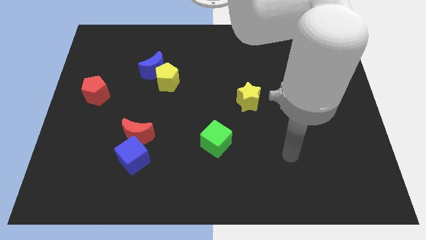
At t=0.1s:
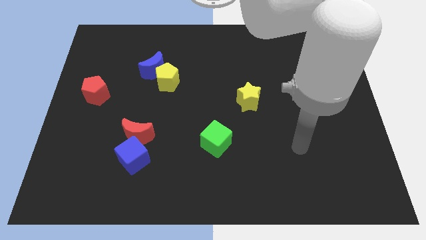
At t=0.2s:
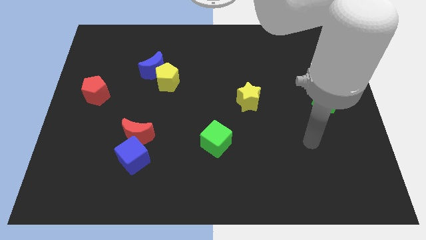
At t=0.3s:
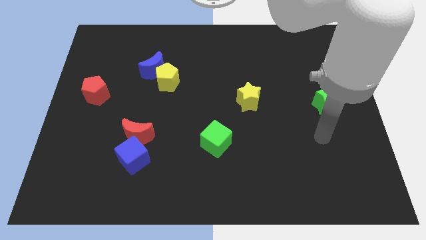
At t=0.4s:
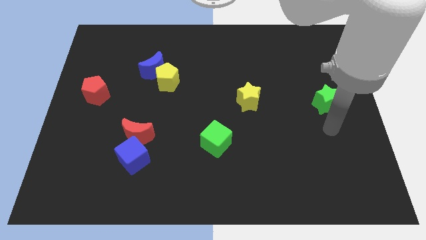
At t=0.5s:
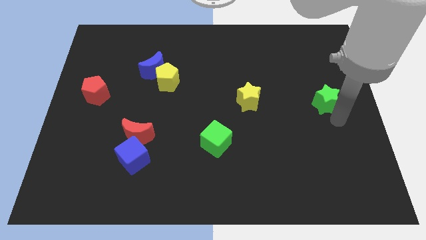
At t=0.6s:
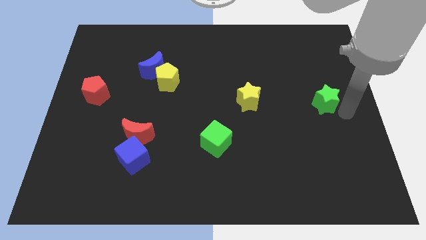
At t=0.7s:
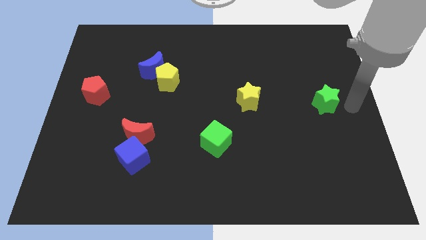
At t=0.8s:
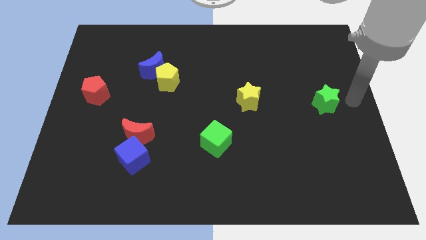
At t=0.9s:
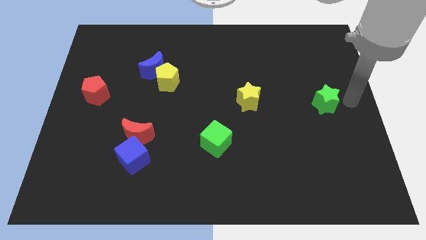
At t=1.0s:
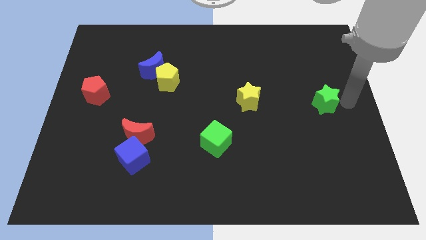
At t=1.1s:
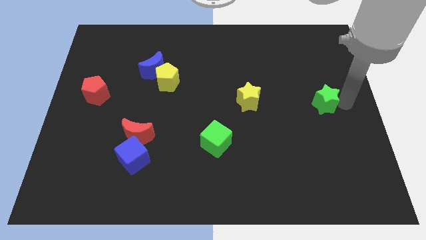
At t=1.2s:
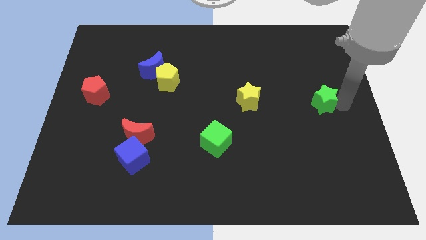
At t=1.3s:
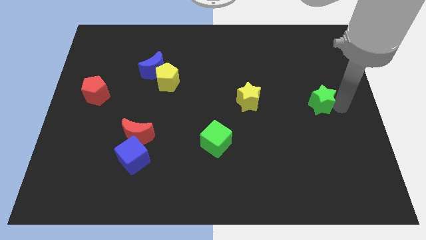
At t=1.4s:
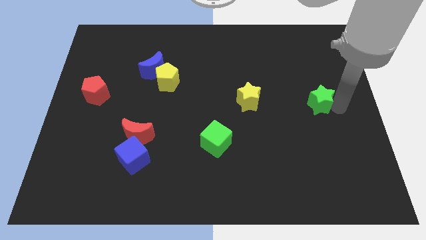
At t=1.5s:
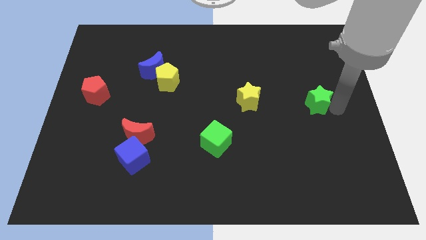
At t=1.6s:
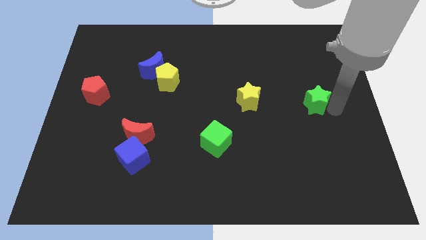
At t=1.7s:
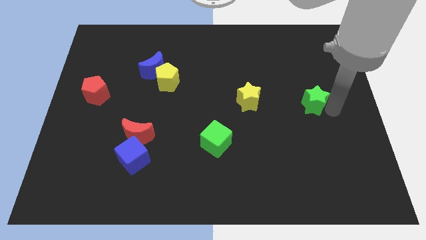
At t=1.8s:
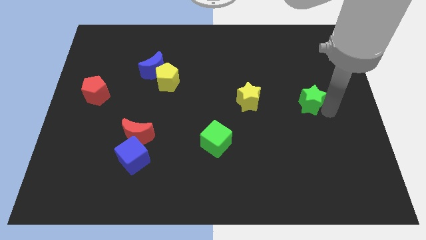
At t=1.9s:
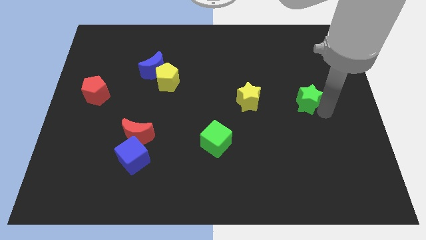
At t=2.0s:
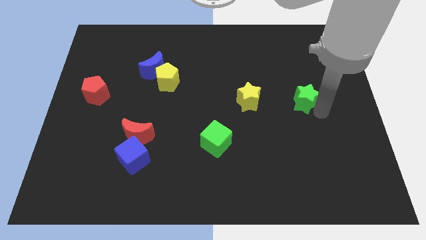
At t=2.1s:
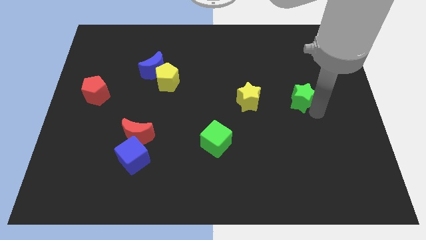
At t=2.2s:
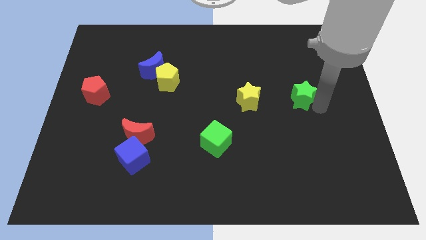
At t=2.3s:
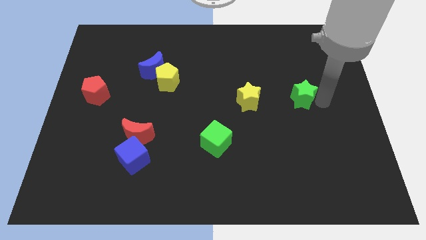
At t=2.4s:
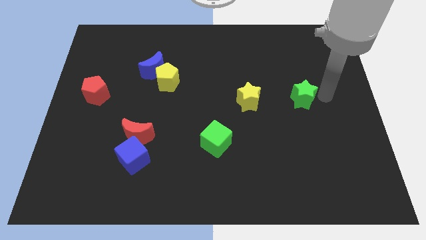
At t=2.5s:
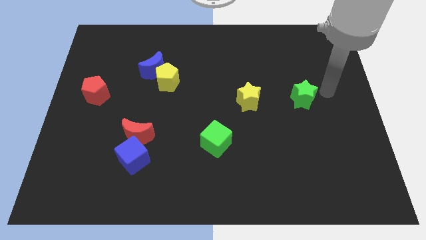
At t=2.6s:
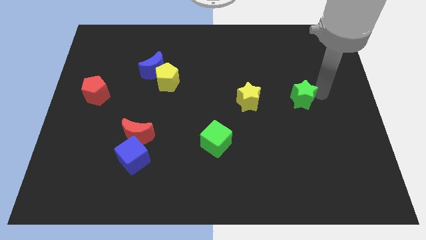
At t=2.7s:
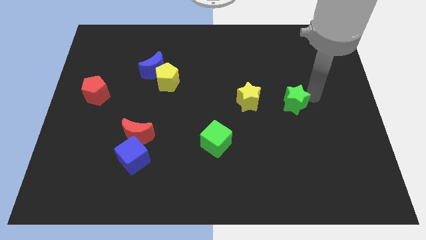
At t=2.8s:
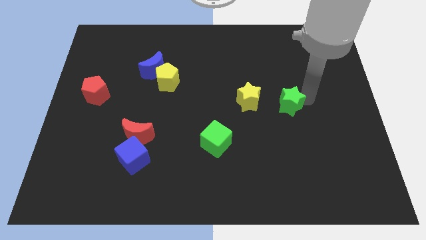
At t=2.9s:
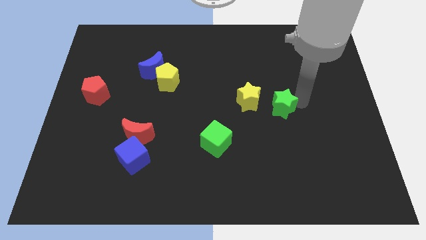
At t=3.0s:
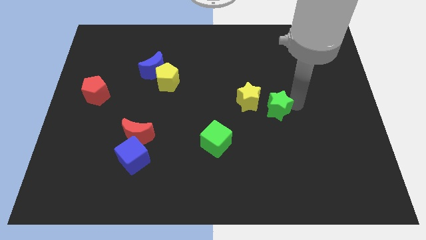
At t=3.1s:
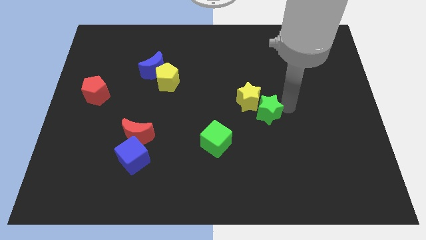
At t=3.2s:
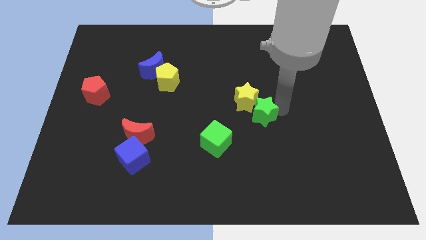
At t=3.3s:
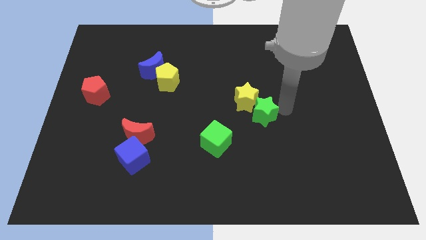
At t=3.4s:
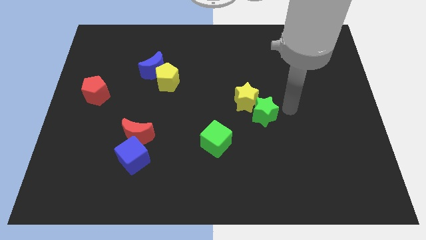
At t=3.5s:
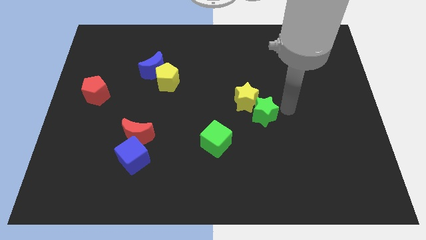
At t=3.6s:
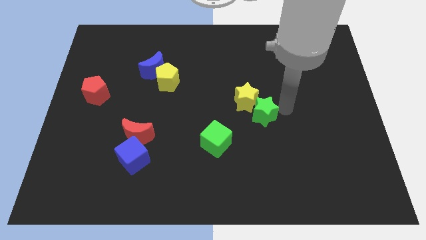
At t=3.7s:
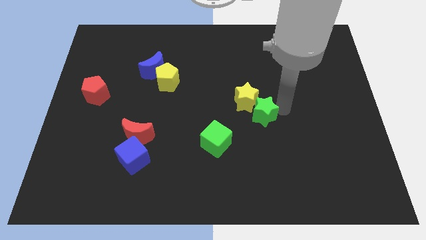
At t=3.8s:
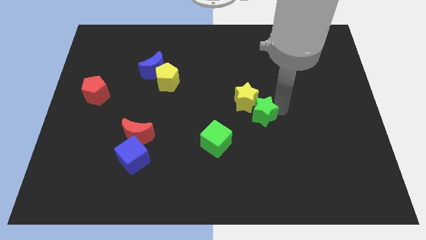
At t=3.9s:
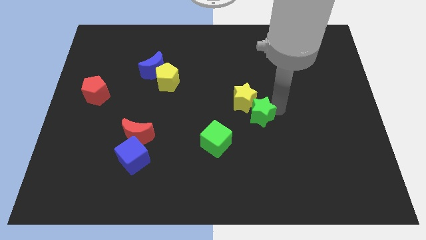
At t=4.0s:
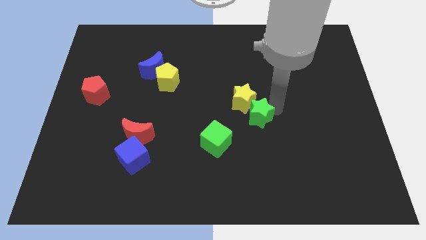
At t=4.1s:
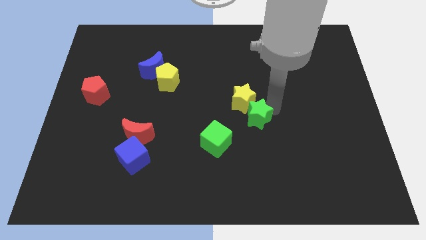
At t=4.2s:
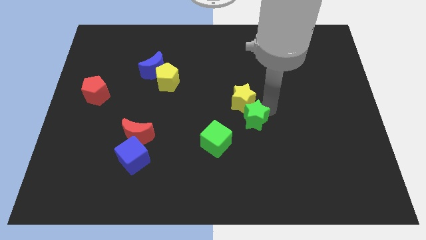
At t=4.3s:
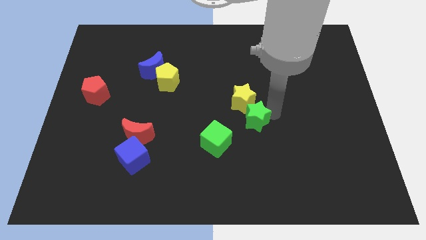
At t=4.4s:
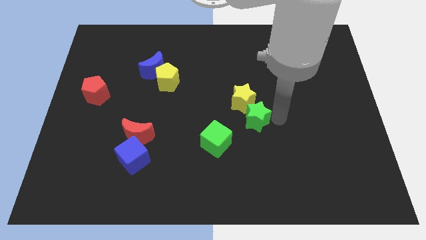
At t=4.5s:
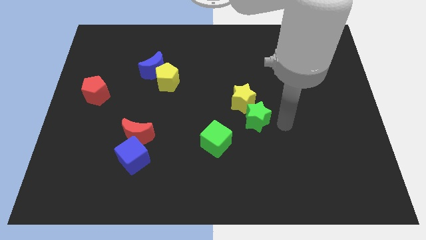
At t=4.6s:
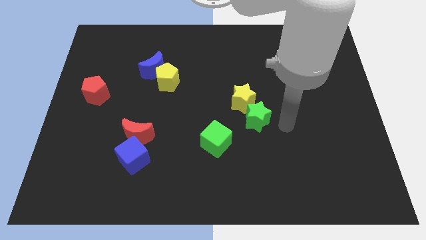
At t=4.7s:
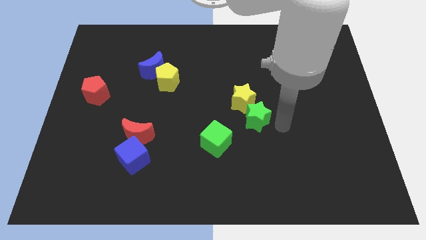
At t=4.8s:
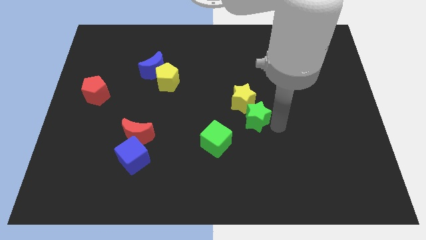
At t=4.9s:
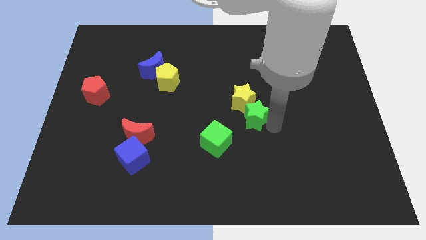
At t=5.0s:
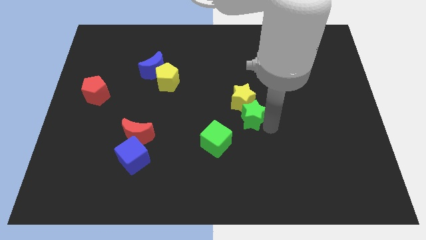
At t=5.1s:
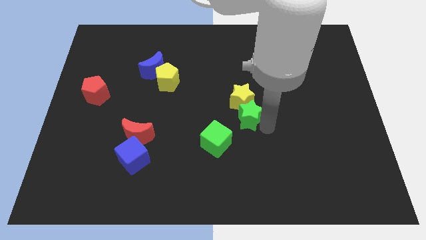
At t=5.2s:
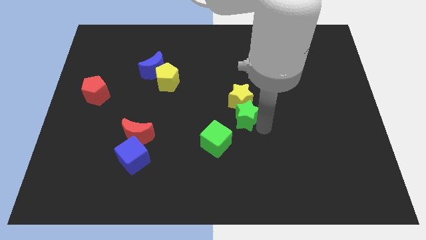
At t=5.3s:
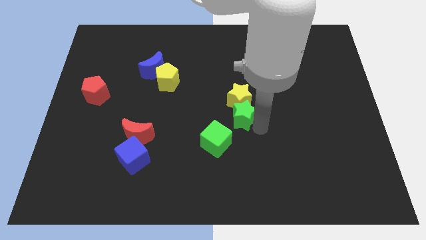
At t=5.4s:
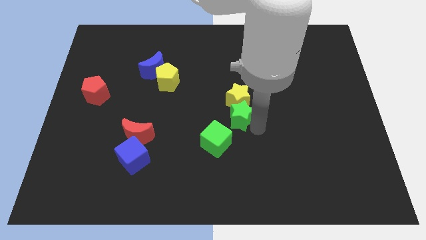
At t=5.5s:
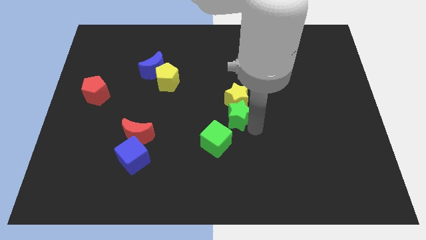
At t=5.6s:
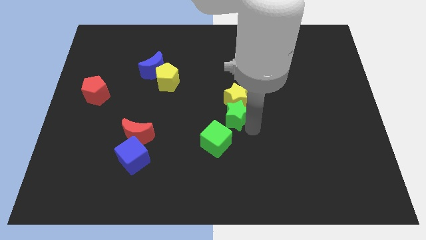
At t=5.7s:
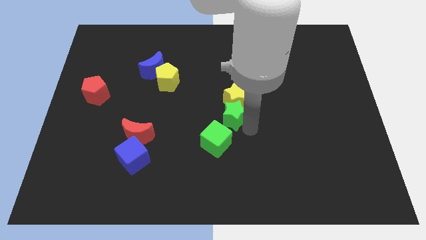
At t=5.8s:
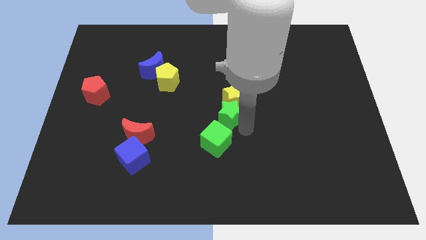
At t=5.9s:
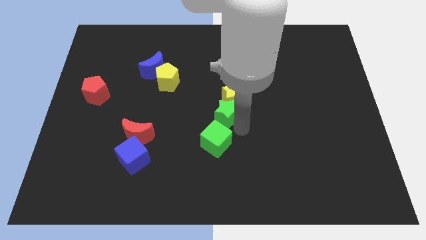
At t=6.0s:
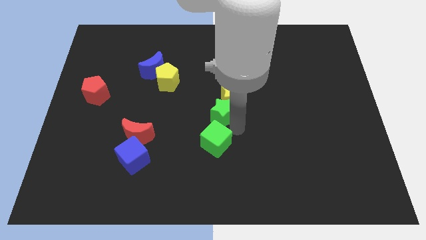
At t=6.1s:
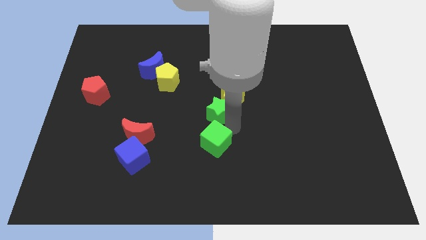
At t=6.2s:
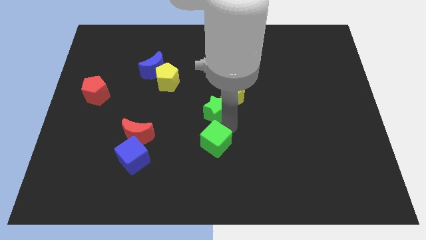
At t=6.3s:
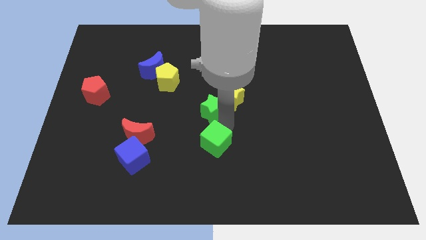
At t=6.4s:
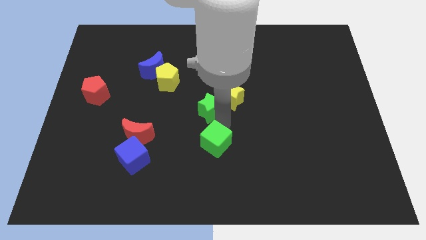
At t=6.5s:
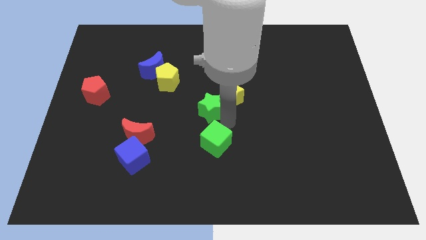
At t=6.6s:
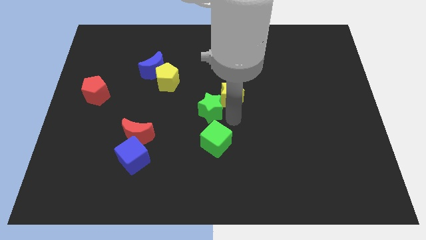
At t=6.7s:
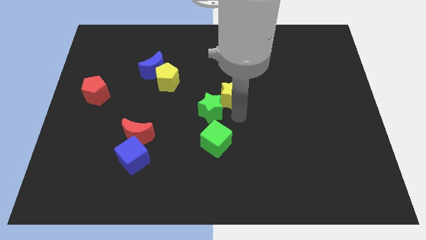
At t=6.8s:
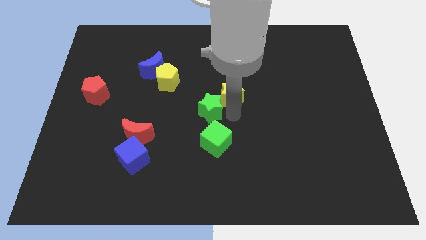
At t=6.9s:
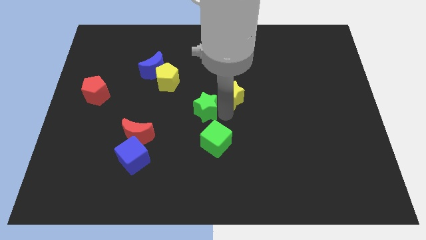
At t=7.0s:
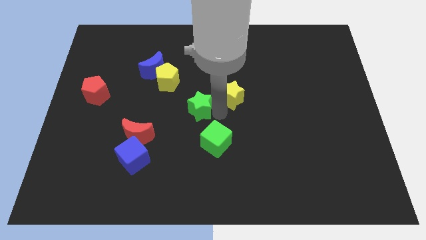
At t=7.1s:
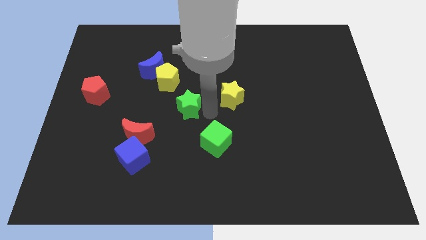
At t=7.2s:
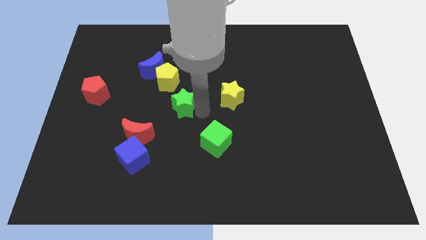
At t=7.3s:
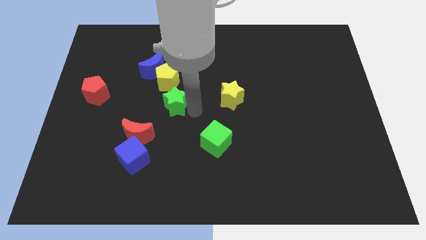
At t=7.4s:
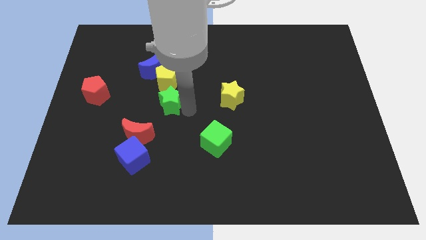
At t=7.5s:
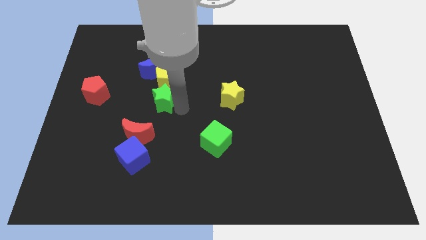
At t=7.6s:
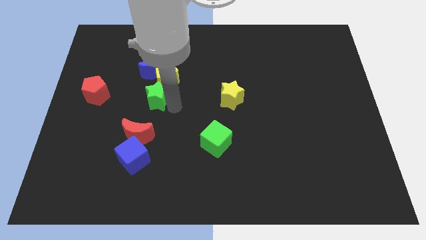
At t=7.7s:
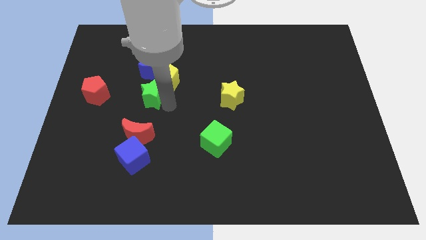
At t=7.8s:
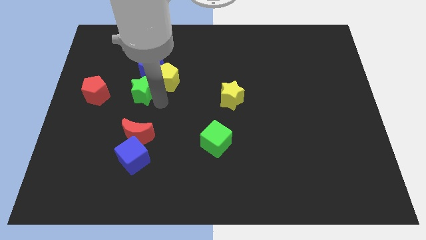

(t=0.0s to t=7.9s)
slide the green star to the left of the yellow pentagon
